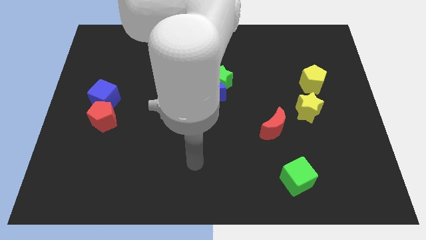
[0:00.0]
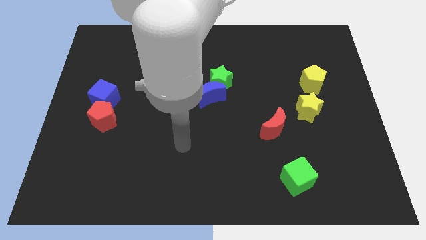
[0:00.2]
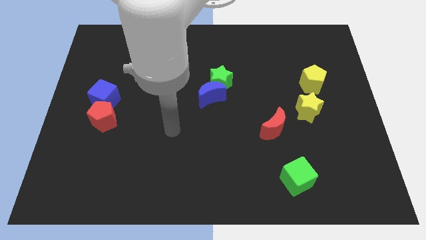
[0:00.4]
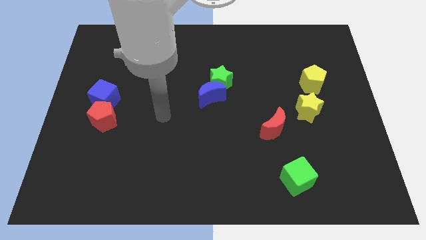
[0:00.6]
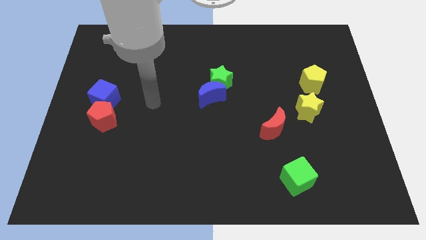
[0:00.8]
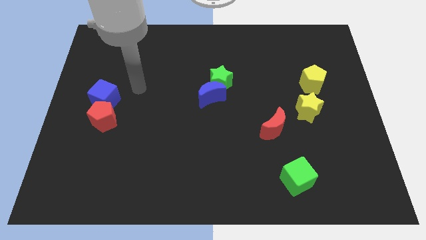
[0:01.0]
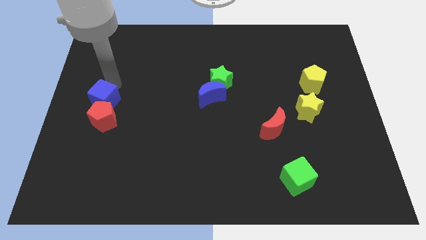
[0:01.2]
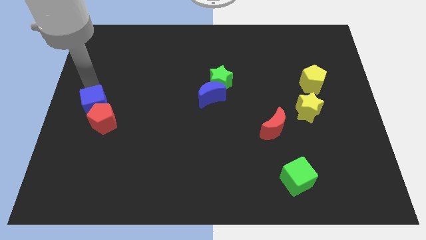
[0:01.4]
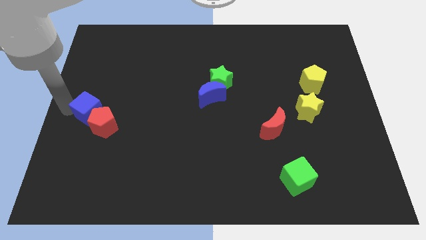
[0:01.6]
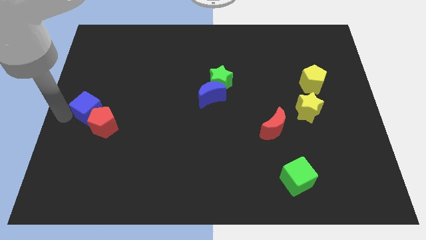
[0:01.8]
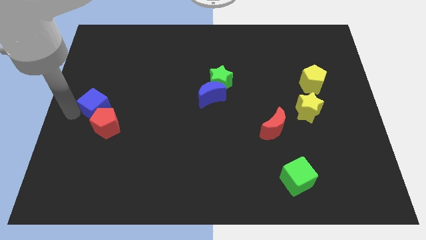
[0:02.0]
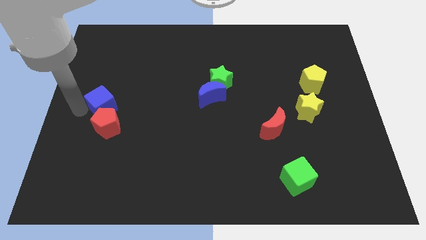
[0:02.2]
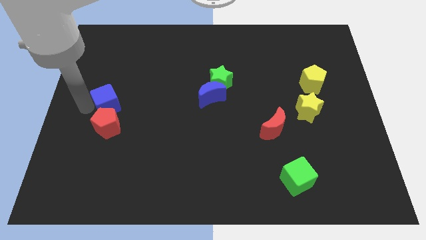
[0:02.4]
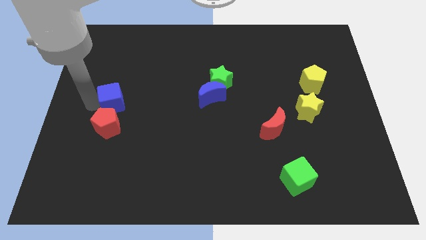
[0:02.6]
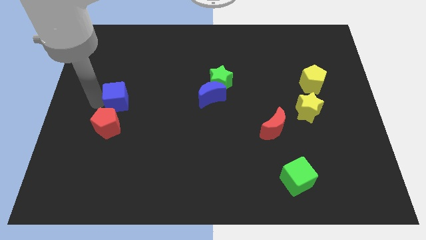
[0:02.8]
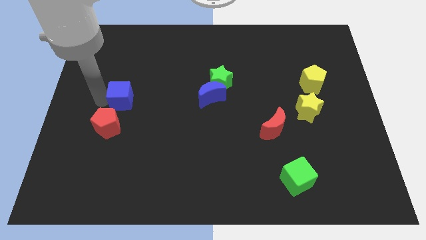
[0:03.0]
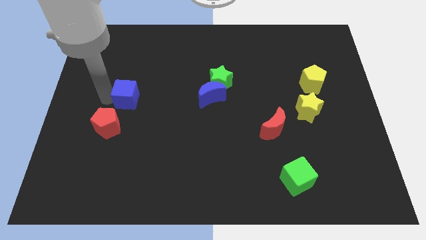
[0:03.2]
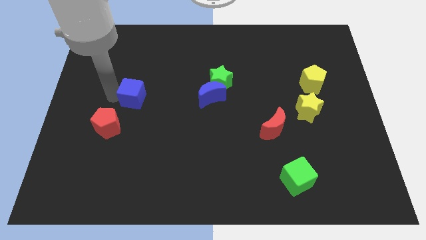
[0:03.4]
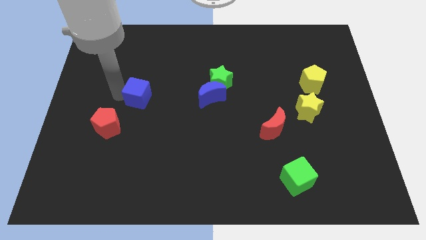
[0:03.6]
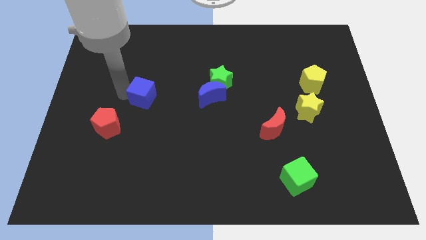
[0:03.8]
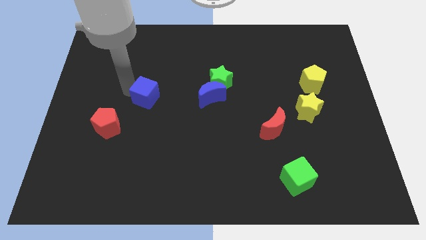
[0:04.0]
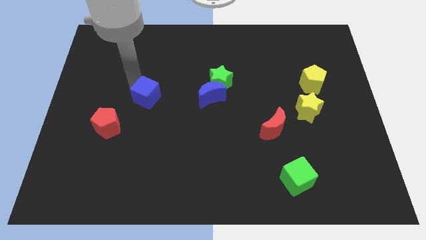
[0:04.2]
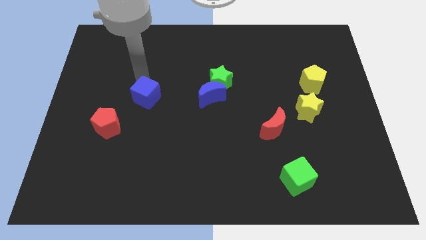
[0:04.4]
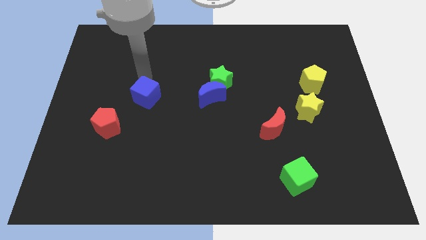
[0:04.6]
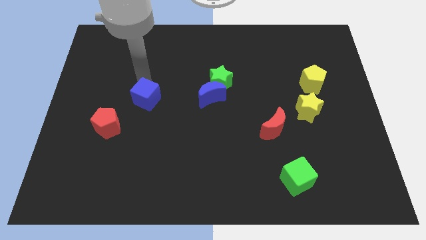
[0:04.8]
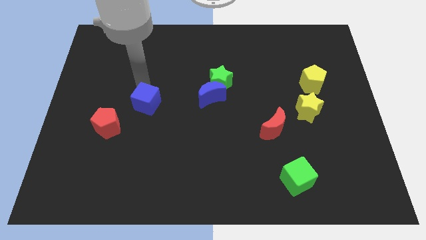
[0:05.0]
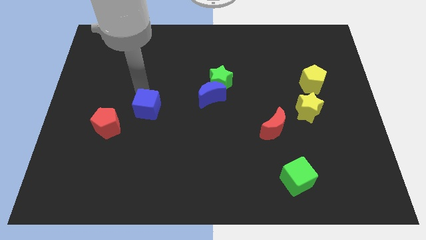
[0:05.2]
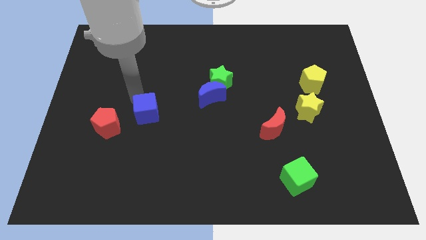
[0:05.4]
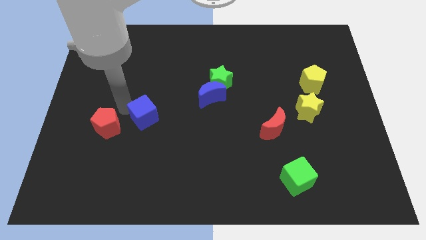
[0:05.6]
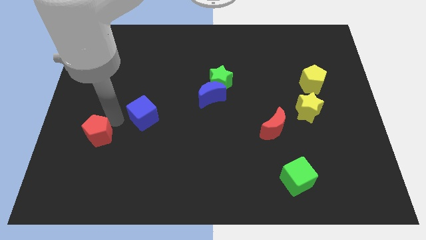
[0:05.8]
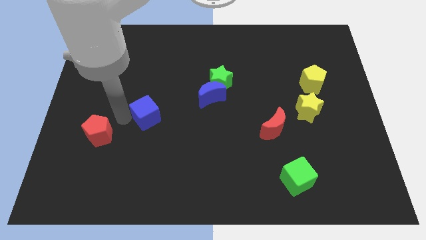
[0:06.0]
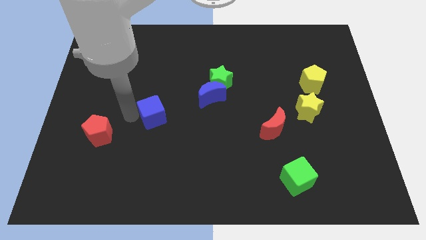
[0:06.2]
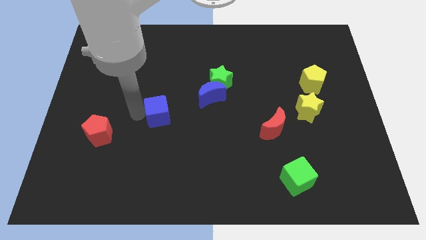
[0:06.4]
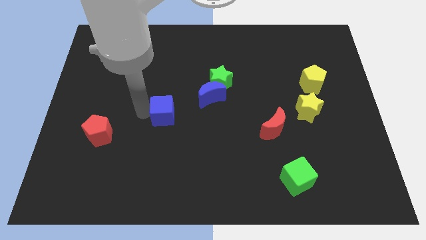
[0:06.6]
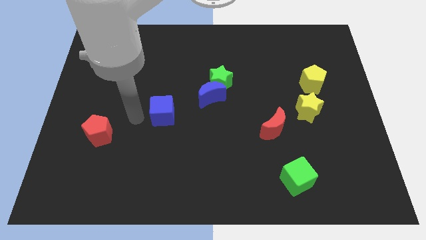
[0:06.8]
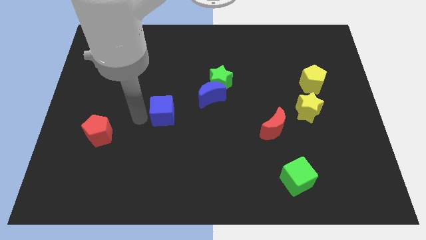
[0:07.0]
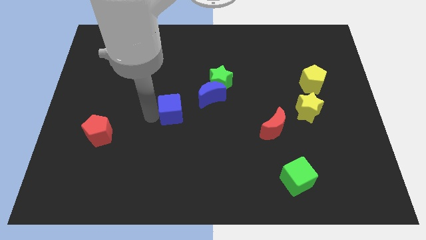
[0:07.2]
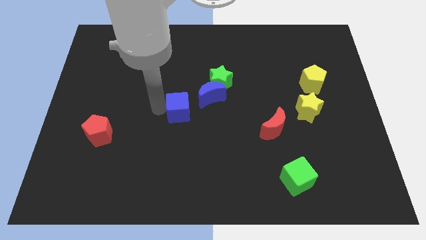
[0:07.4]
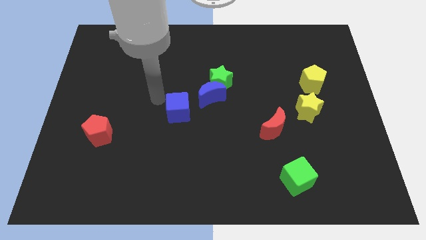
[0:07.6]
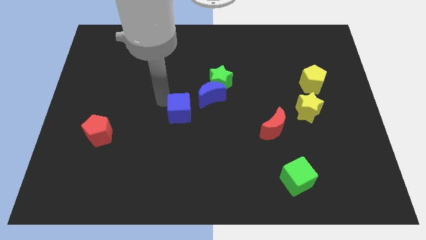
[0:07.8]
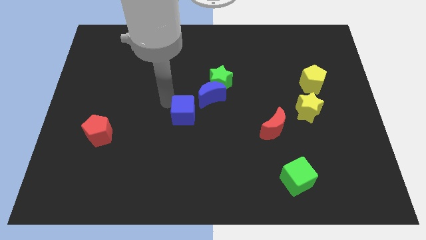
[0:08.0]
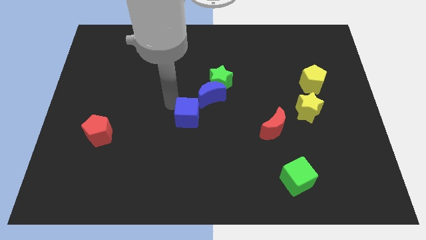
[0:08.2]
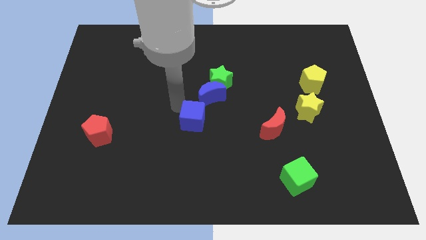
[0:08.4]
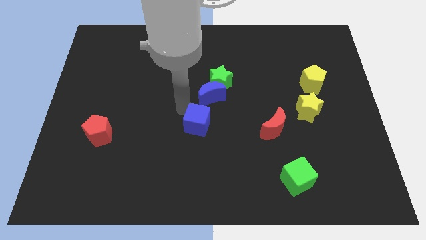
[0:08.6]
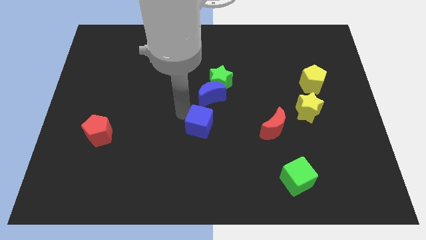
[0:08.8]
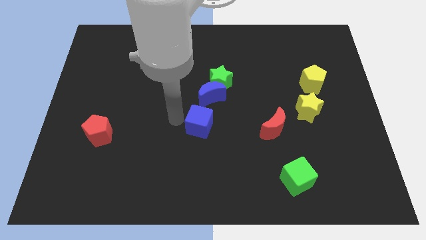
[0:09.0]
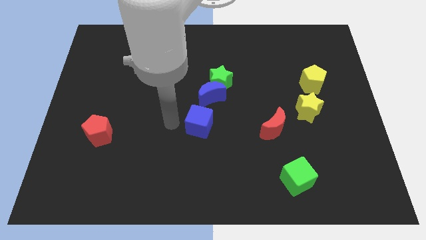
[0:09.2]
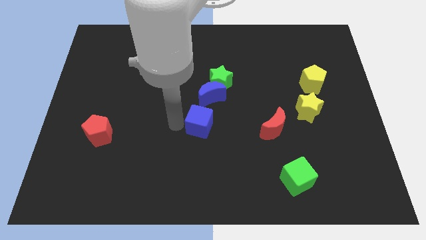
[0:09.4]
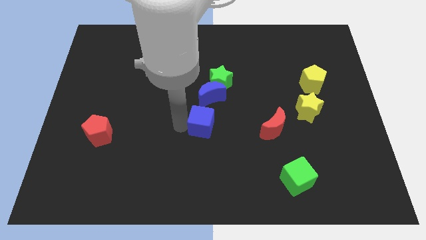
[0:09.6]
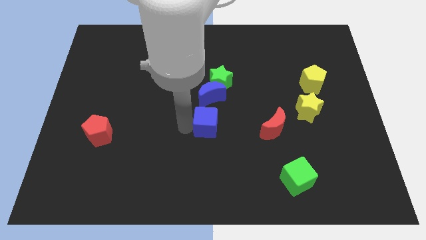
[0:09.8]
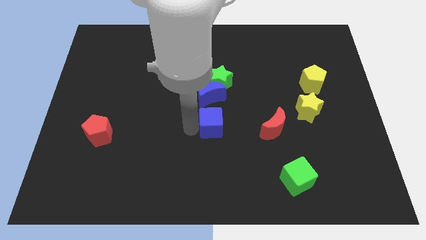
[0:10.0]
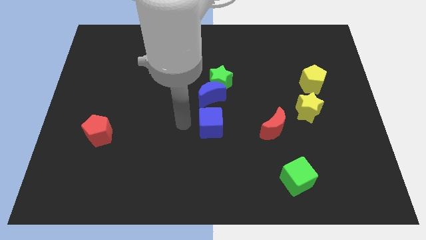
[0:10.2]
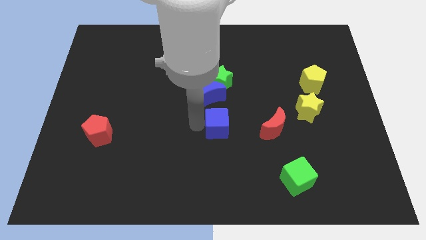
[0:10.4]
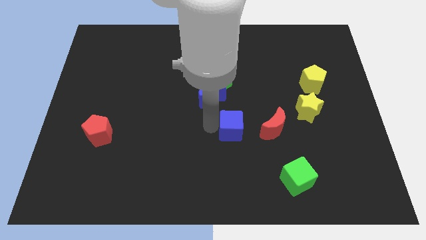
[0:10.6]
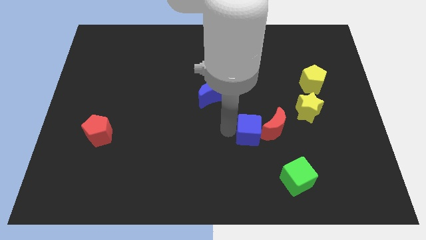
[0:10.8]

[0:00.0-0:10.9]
push the blue cube close to the red moon

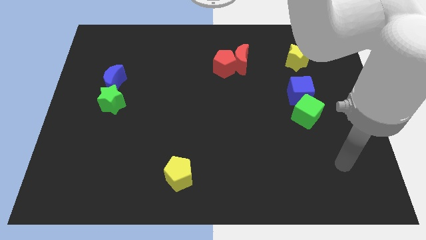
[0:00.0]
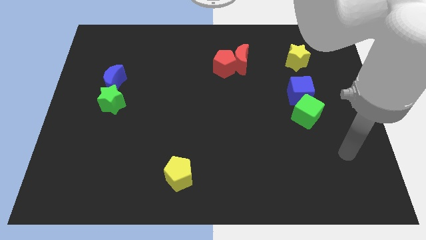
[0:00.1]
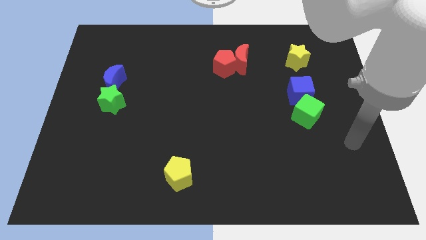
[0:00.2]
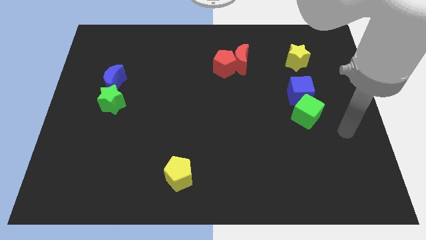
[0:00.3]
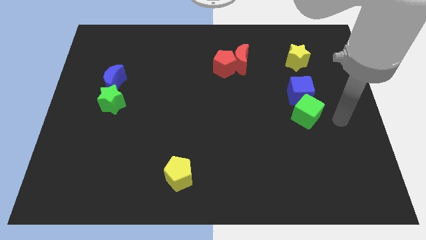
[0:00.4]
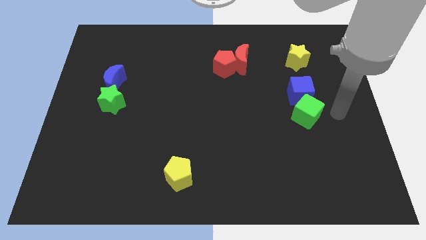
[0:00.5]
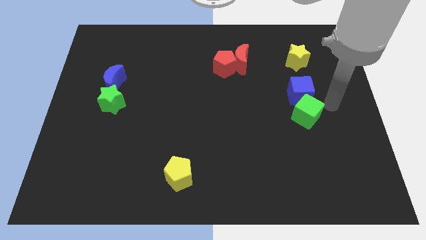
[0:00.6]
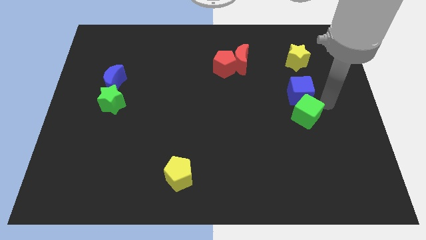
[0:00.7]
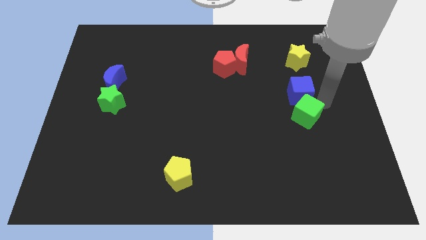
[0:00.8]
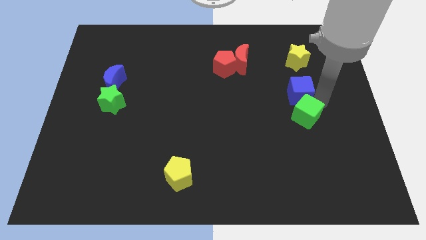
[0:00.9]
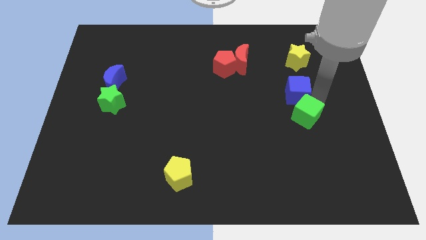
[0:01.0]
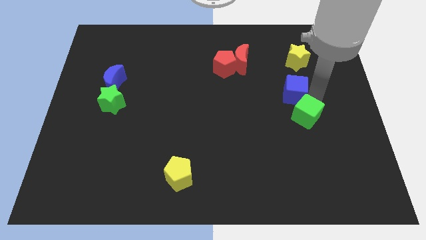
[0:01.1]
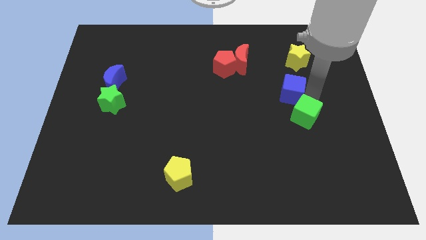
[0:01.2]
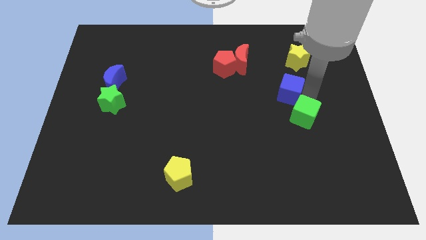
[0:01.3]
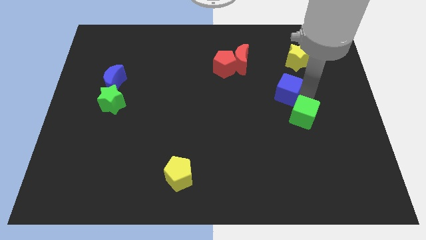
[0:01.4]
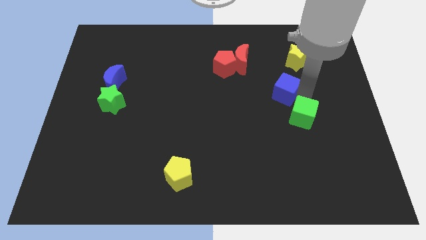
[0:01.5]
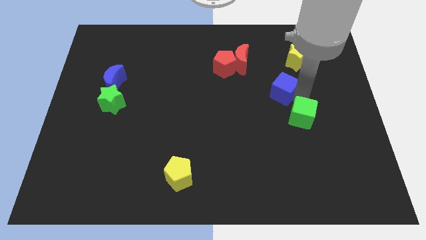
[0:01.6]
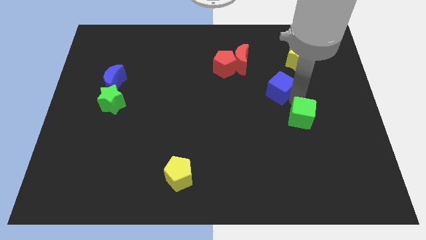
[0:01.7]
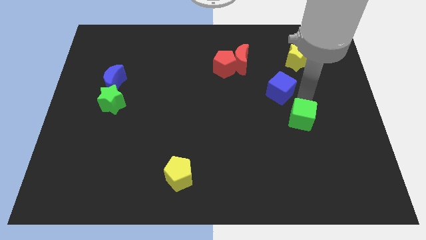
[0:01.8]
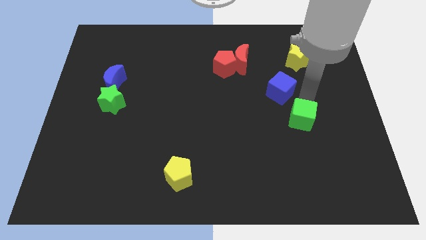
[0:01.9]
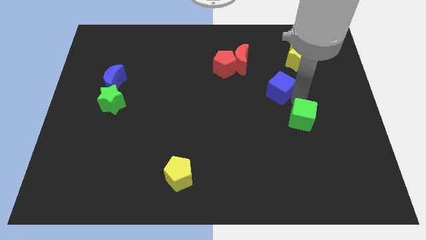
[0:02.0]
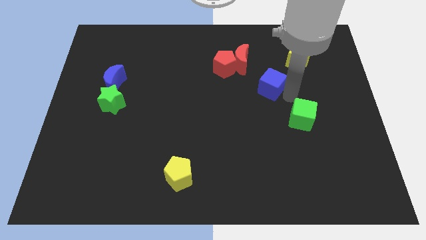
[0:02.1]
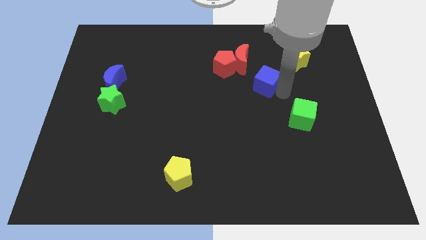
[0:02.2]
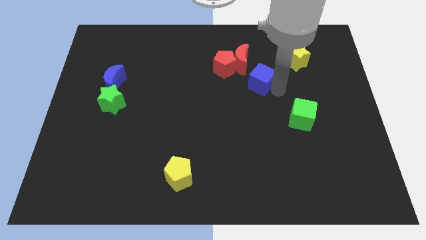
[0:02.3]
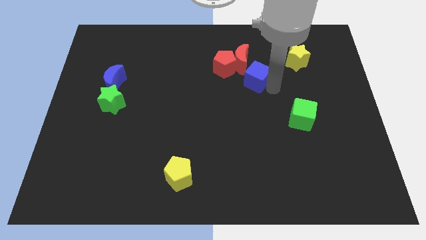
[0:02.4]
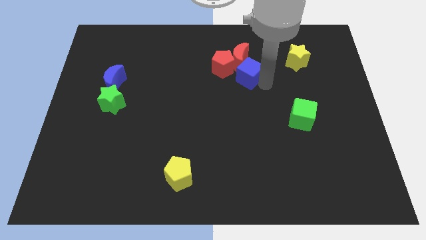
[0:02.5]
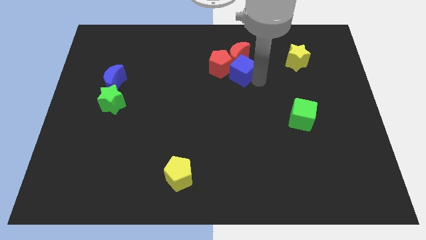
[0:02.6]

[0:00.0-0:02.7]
put the blue cube close to the red pentagon
